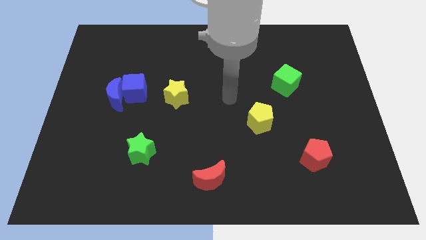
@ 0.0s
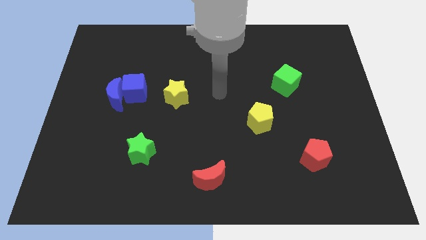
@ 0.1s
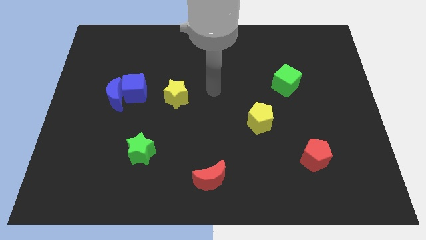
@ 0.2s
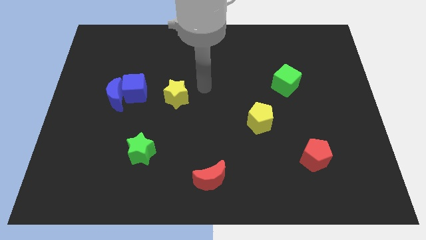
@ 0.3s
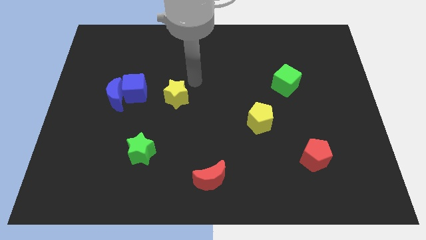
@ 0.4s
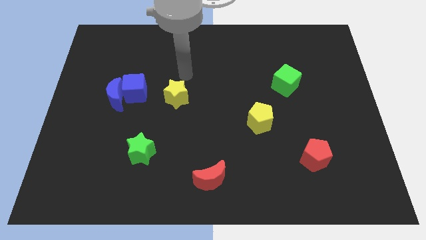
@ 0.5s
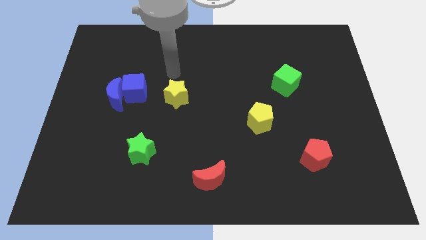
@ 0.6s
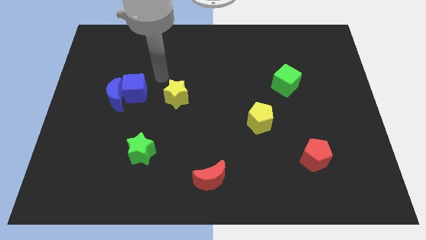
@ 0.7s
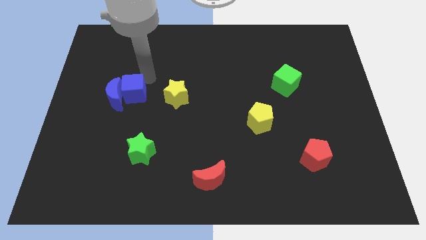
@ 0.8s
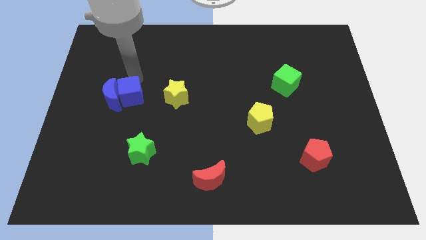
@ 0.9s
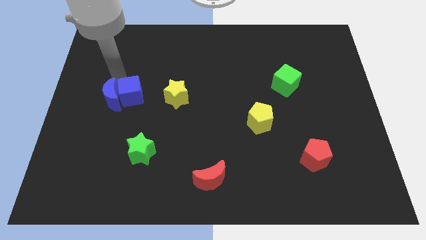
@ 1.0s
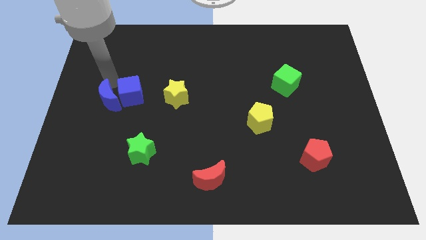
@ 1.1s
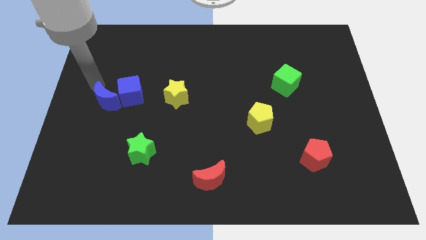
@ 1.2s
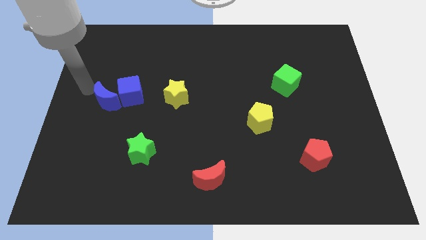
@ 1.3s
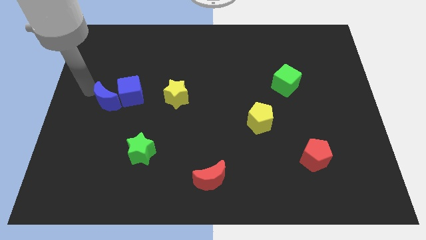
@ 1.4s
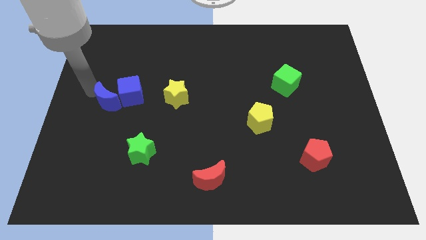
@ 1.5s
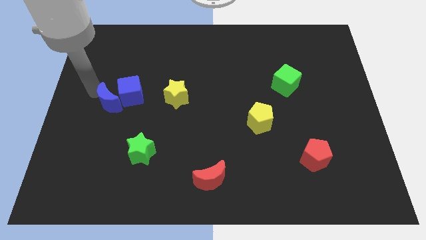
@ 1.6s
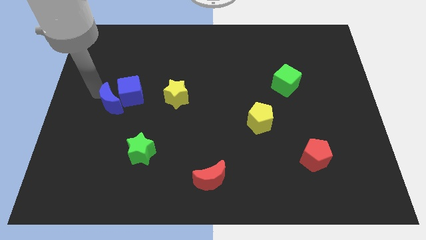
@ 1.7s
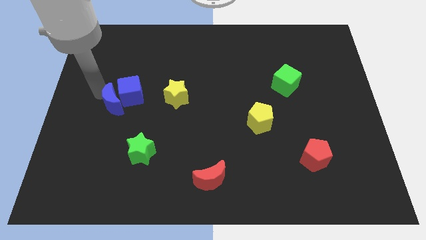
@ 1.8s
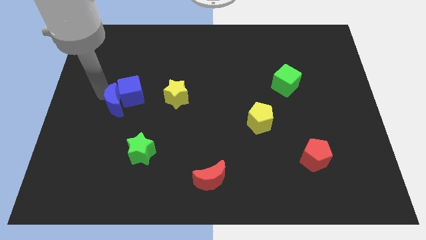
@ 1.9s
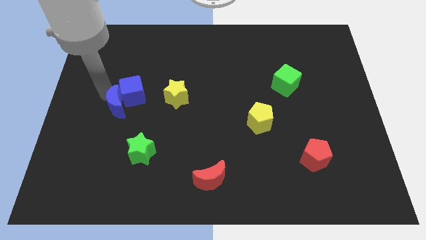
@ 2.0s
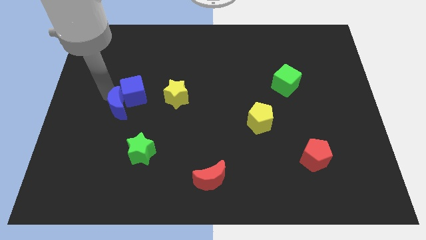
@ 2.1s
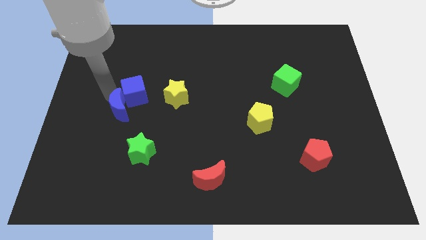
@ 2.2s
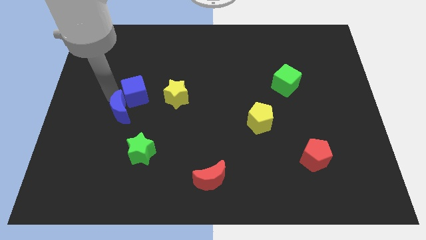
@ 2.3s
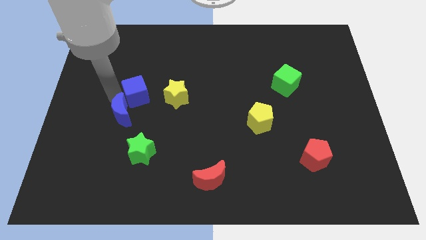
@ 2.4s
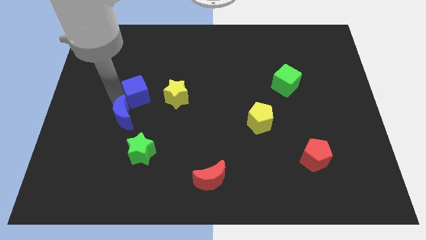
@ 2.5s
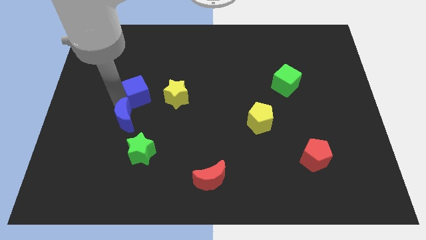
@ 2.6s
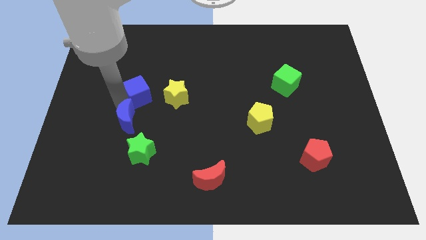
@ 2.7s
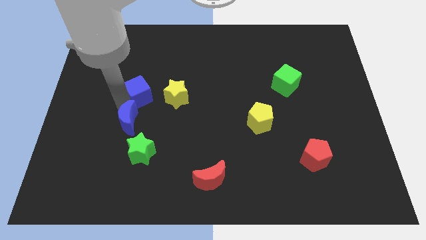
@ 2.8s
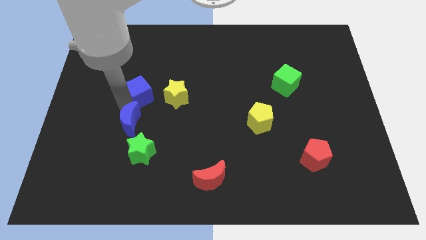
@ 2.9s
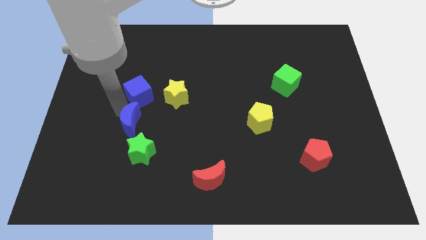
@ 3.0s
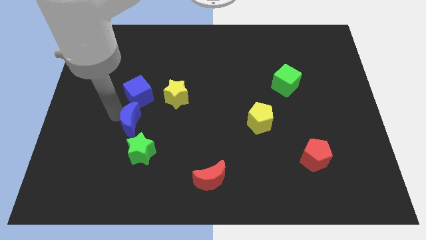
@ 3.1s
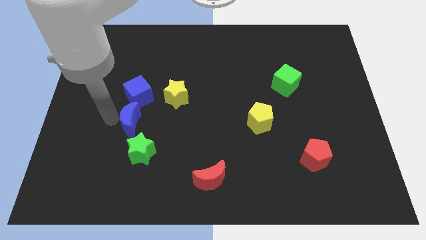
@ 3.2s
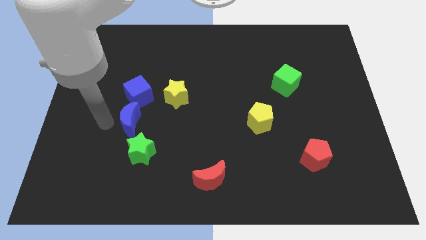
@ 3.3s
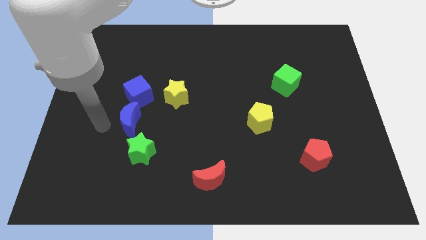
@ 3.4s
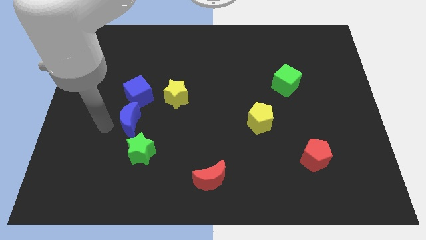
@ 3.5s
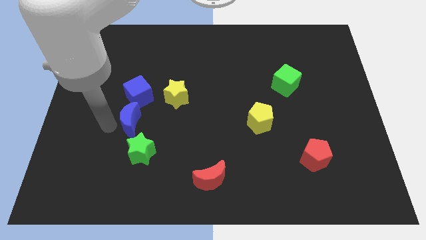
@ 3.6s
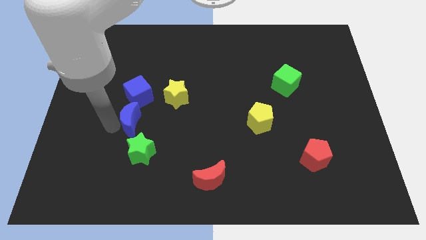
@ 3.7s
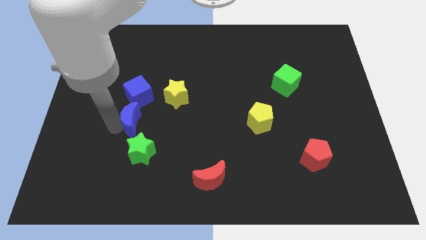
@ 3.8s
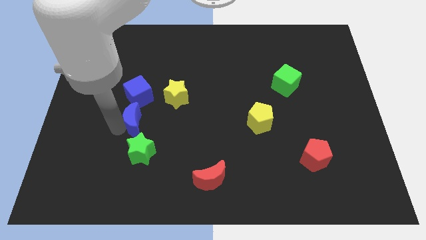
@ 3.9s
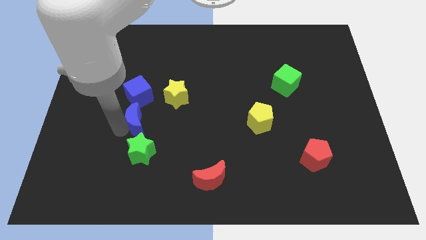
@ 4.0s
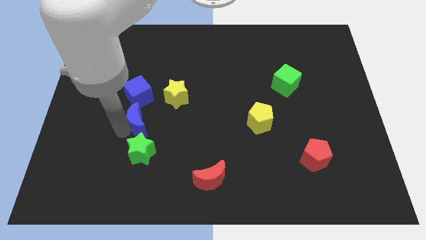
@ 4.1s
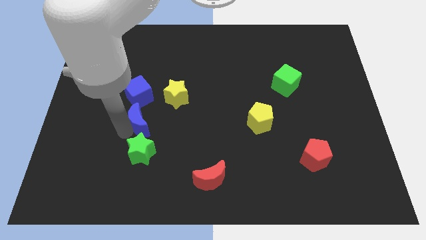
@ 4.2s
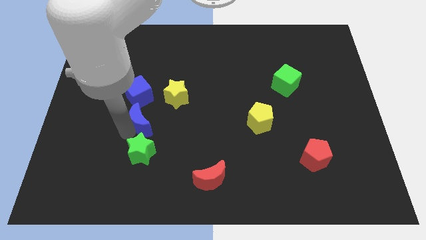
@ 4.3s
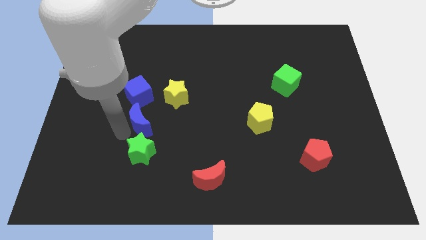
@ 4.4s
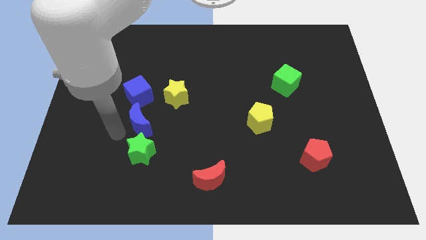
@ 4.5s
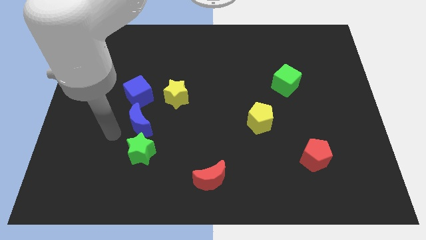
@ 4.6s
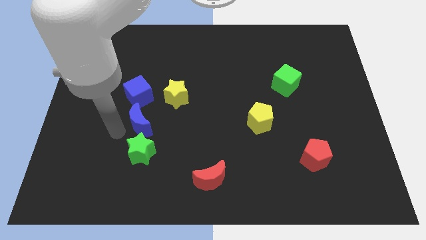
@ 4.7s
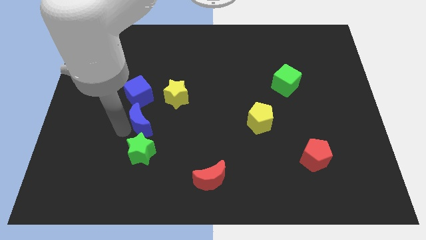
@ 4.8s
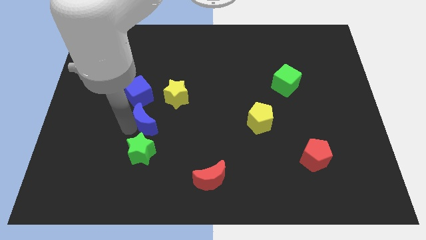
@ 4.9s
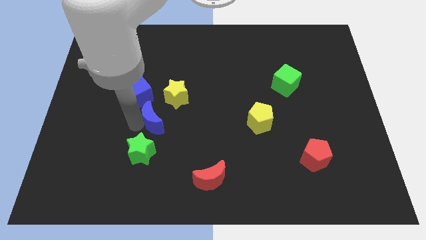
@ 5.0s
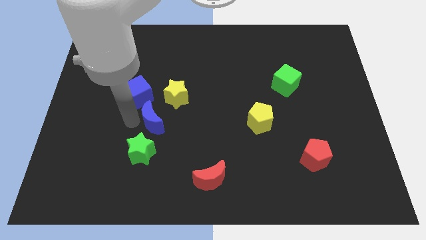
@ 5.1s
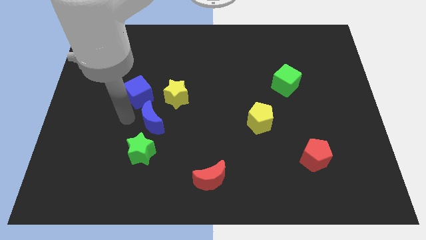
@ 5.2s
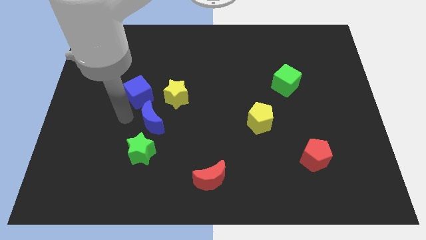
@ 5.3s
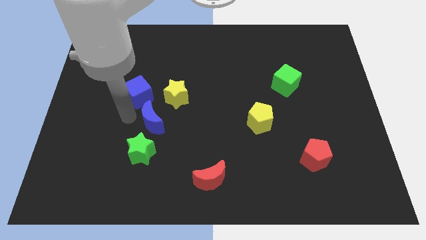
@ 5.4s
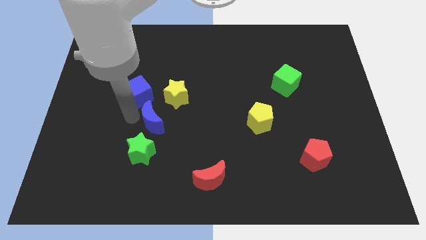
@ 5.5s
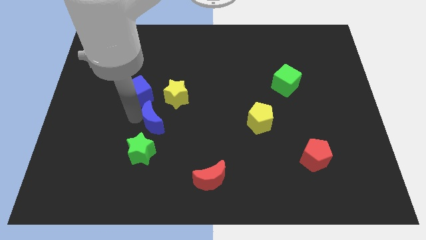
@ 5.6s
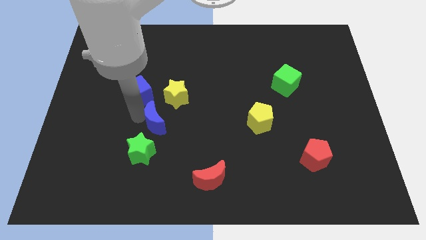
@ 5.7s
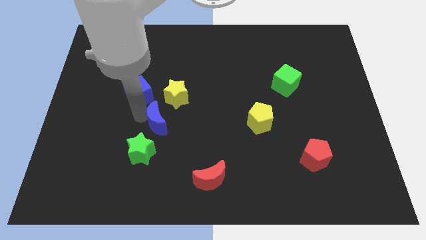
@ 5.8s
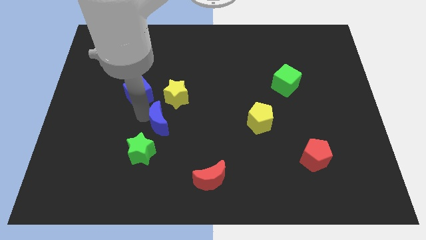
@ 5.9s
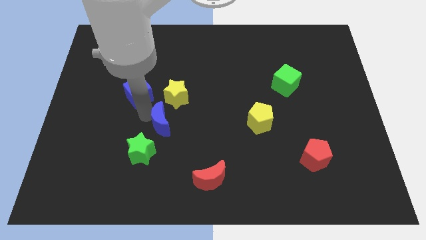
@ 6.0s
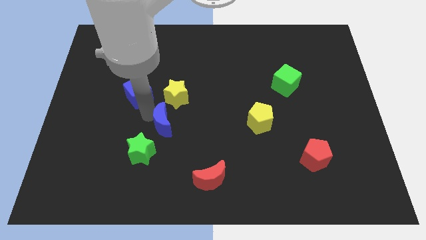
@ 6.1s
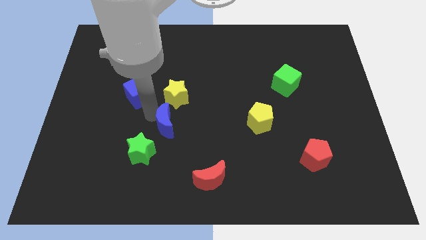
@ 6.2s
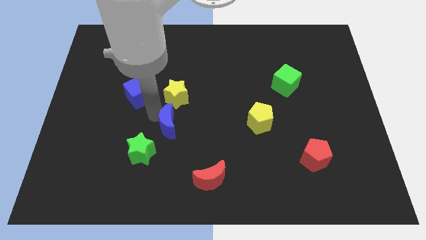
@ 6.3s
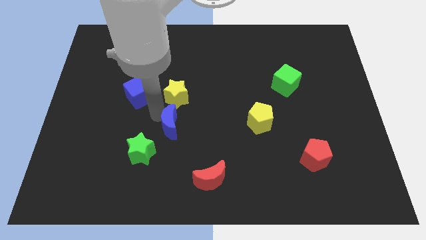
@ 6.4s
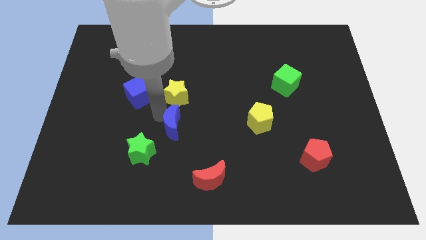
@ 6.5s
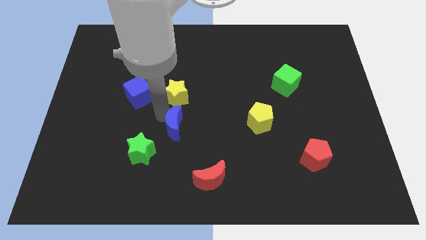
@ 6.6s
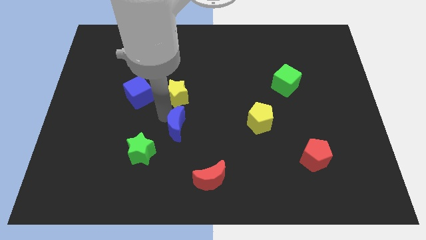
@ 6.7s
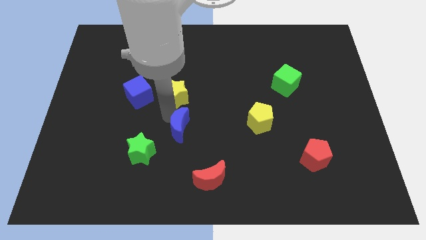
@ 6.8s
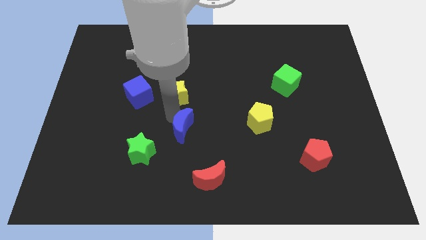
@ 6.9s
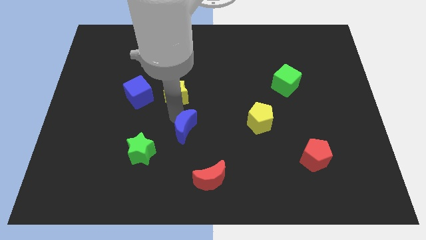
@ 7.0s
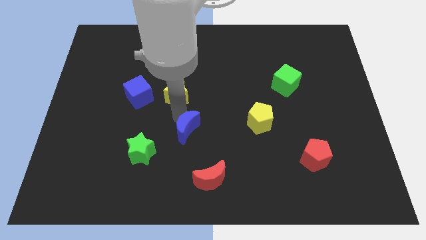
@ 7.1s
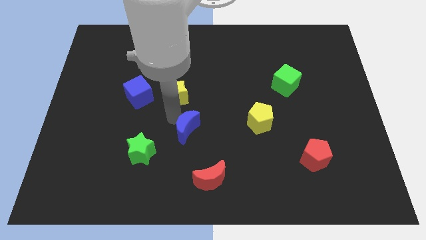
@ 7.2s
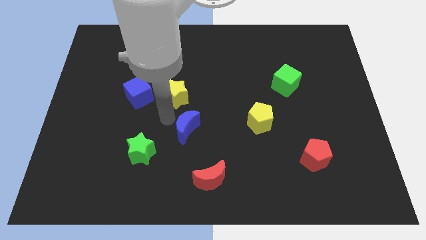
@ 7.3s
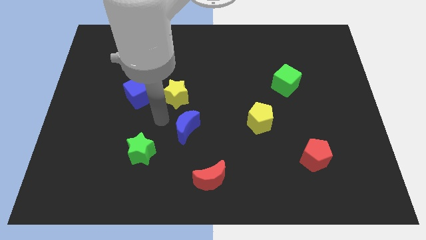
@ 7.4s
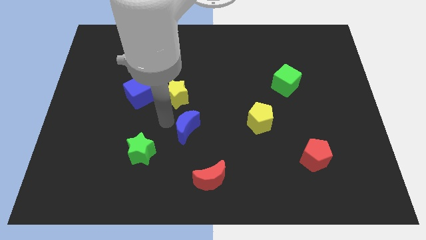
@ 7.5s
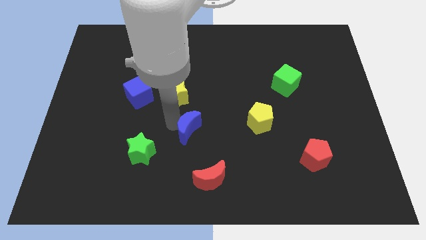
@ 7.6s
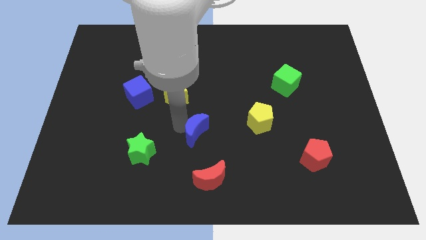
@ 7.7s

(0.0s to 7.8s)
push the blue moon above the red moon

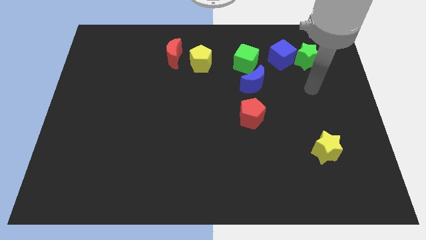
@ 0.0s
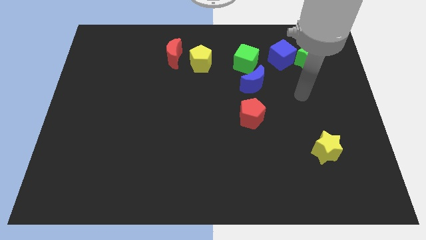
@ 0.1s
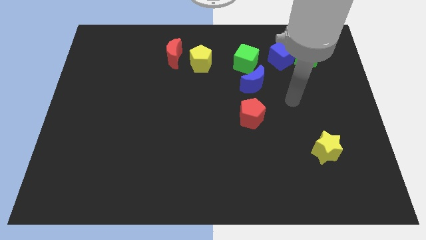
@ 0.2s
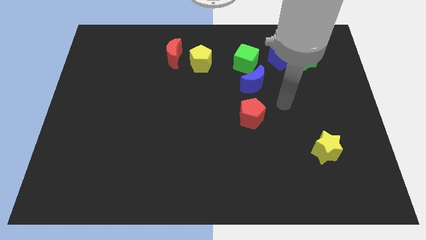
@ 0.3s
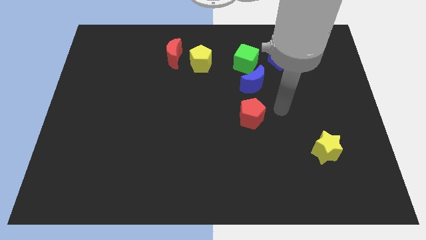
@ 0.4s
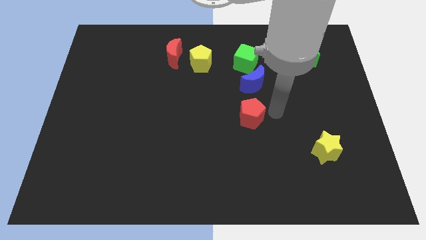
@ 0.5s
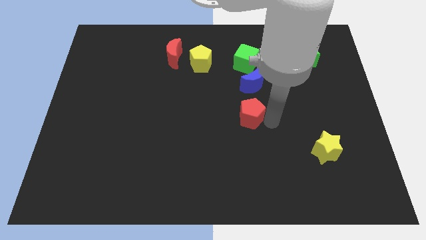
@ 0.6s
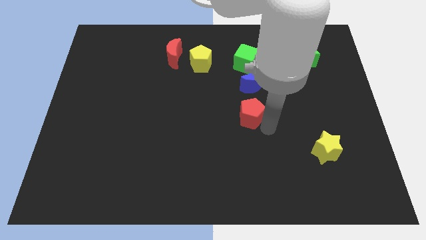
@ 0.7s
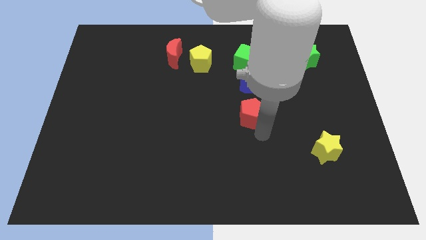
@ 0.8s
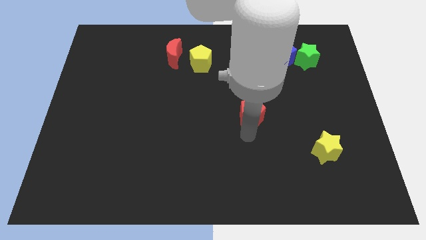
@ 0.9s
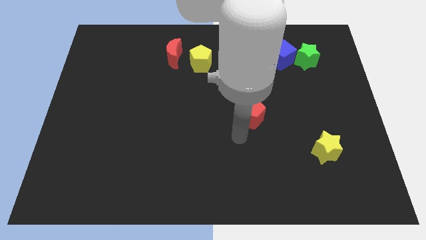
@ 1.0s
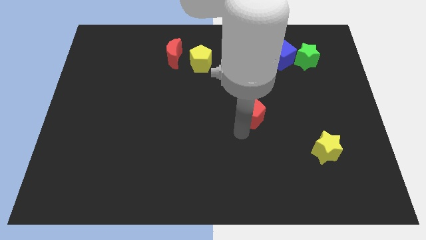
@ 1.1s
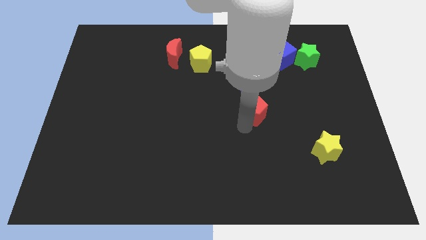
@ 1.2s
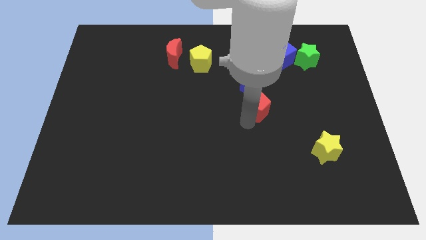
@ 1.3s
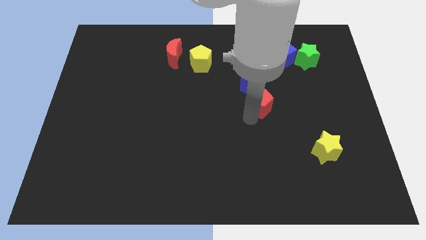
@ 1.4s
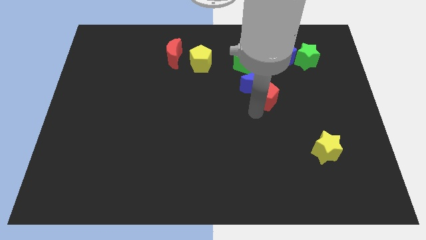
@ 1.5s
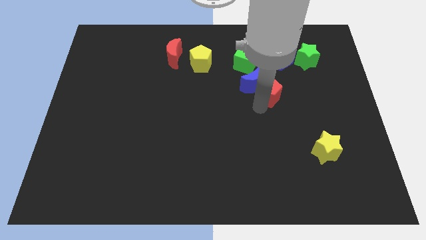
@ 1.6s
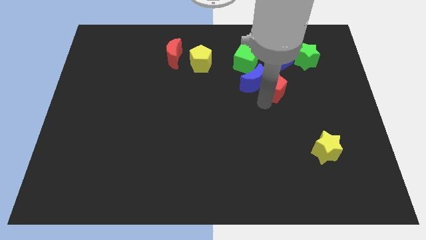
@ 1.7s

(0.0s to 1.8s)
put the red pentagon to the bottom right side of the green cube
